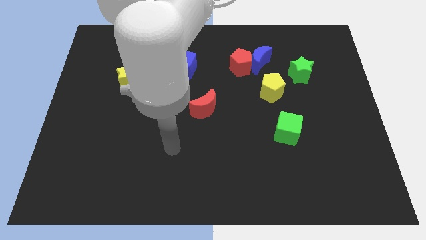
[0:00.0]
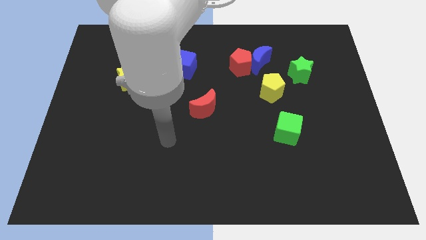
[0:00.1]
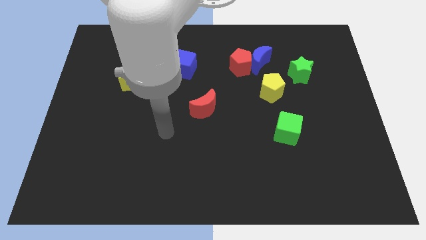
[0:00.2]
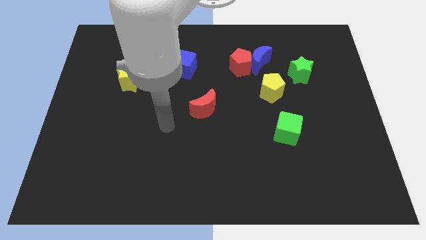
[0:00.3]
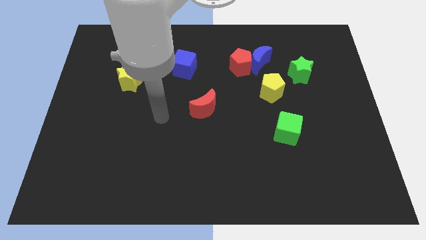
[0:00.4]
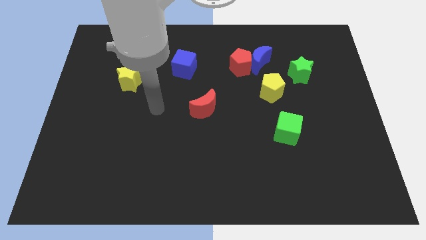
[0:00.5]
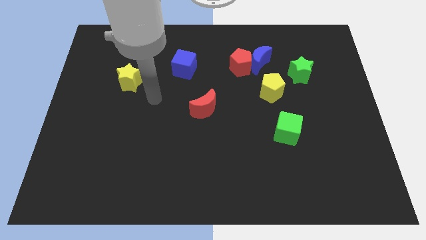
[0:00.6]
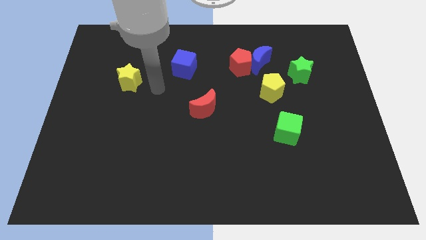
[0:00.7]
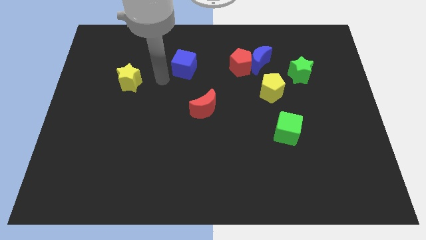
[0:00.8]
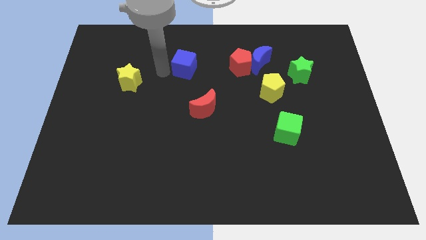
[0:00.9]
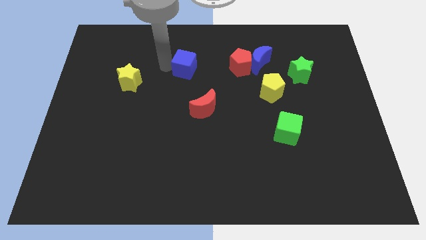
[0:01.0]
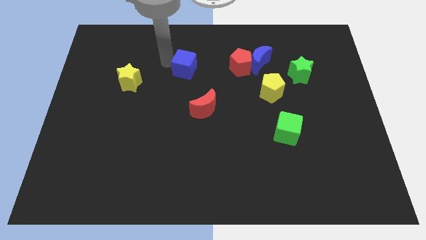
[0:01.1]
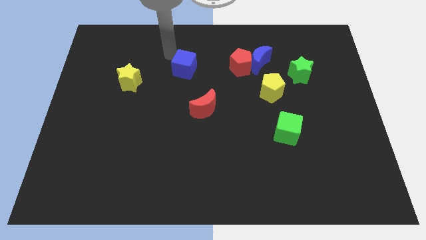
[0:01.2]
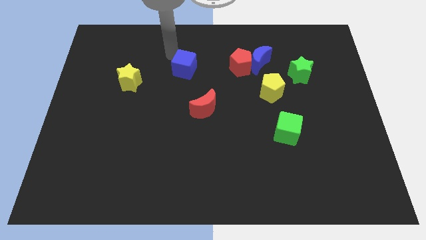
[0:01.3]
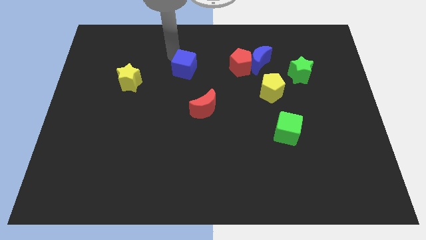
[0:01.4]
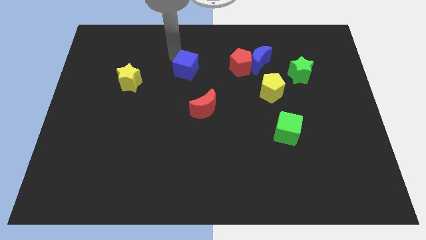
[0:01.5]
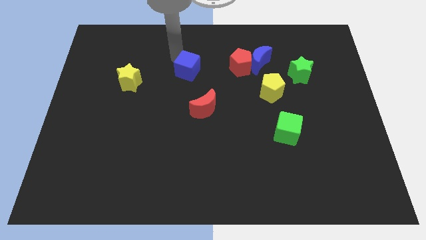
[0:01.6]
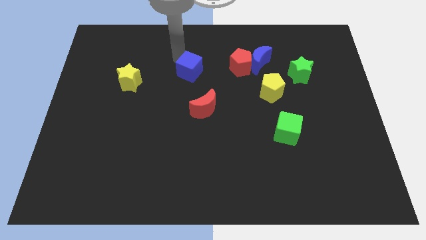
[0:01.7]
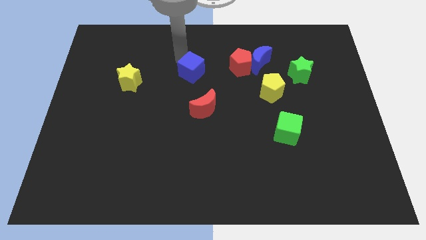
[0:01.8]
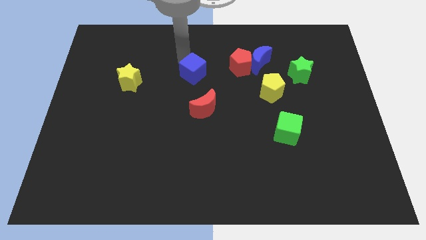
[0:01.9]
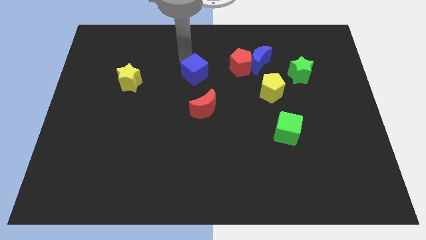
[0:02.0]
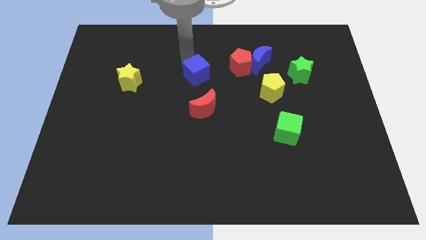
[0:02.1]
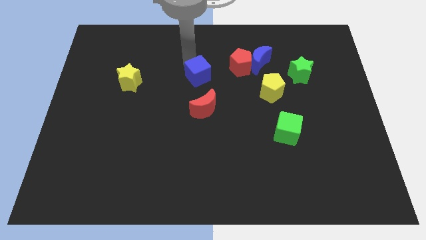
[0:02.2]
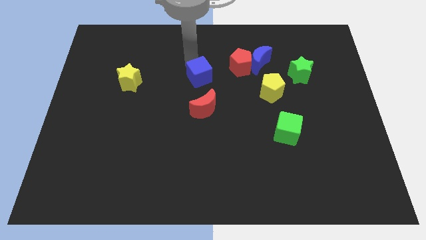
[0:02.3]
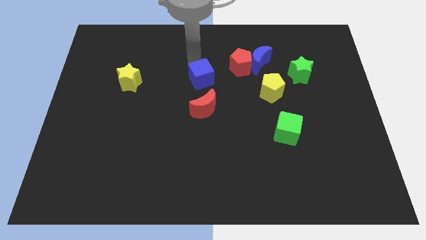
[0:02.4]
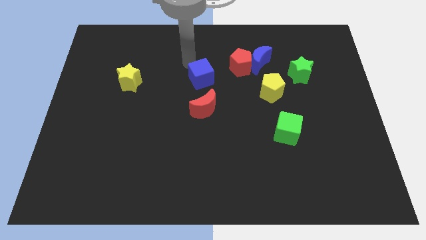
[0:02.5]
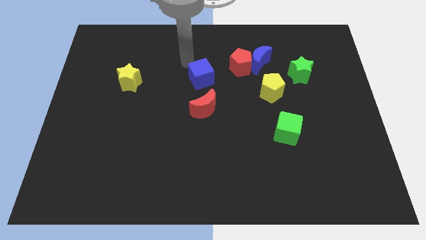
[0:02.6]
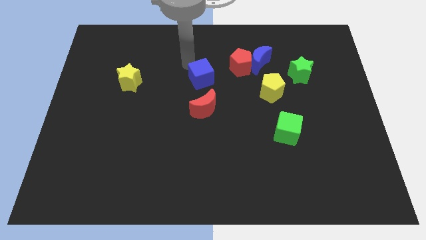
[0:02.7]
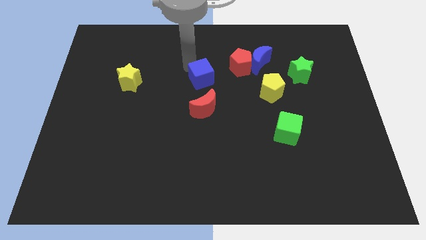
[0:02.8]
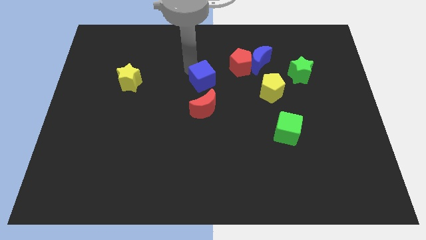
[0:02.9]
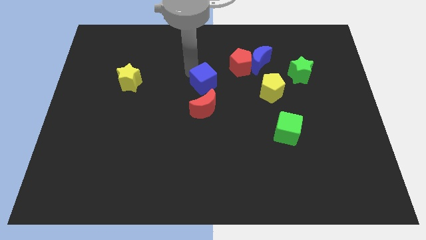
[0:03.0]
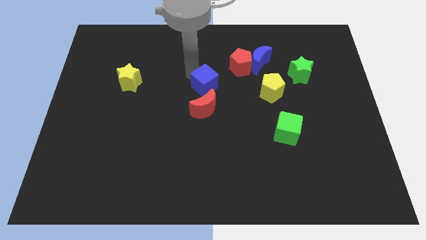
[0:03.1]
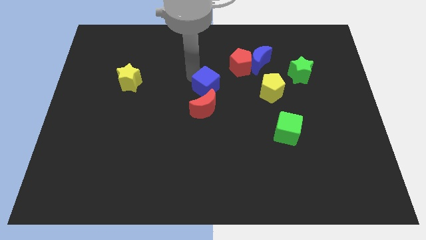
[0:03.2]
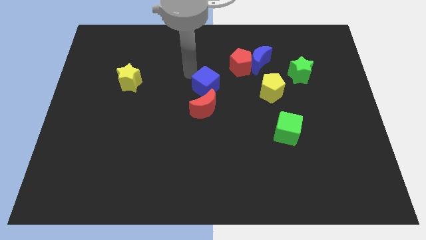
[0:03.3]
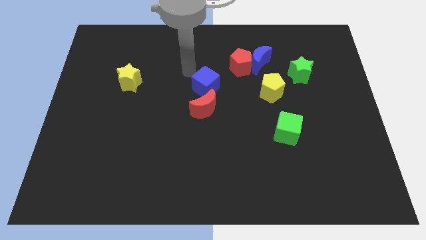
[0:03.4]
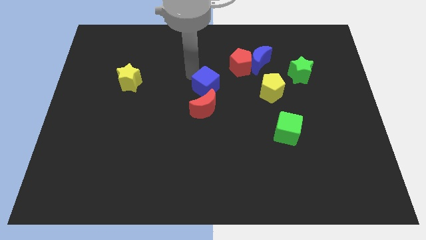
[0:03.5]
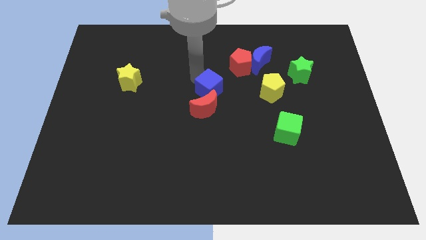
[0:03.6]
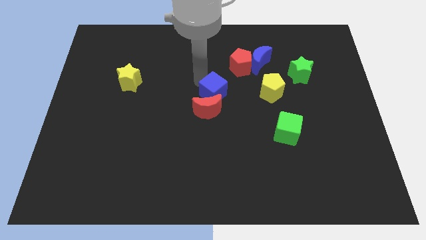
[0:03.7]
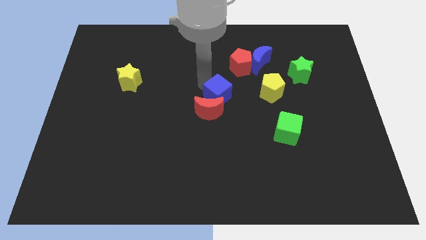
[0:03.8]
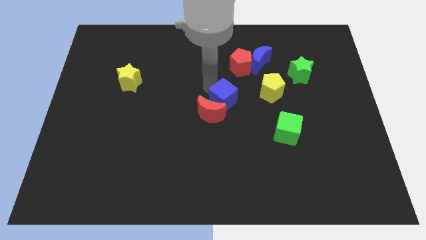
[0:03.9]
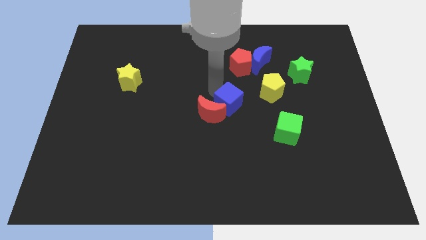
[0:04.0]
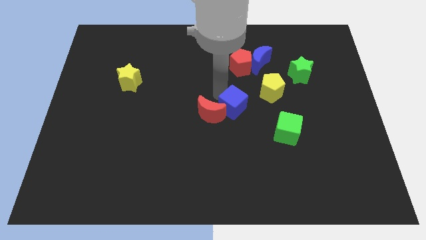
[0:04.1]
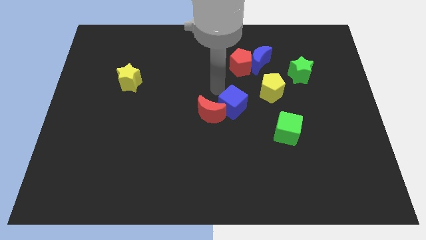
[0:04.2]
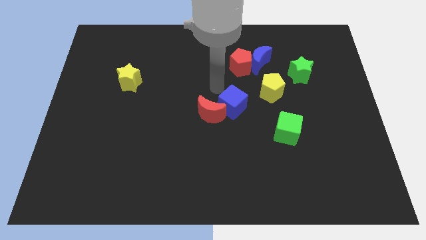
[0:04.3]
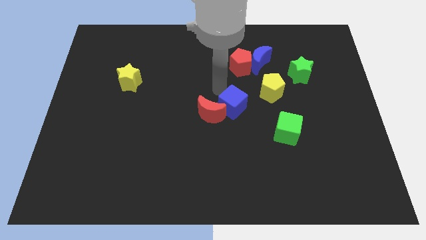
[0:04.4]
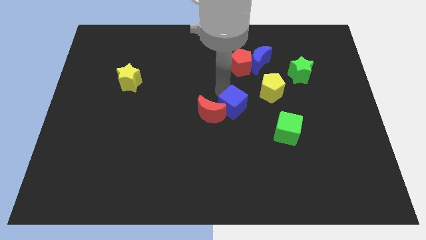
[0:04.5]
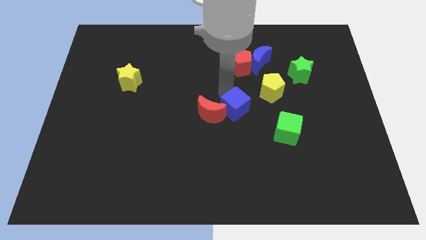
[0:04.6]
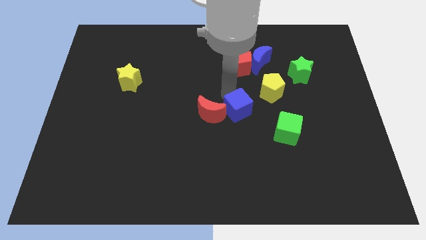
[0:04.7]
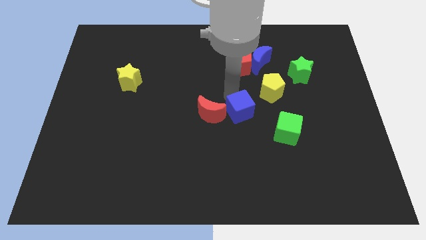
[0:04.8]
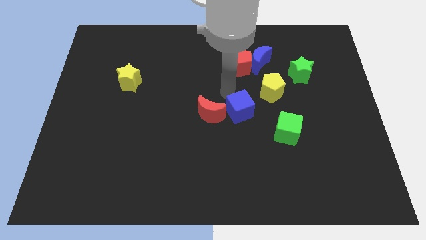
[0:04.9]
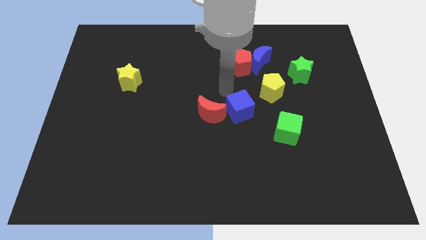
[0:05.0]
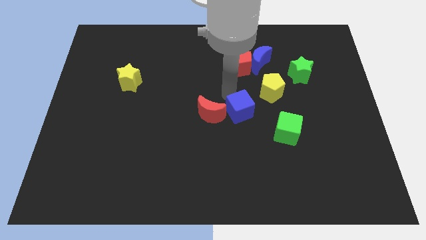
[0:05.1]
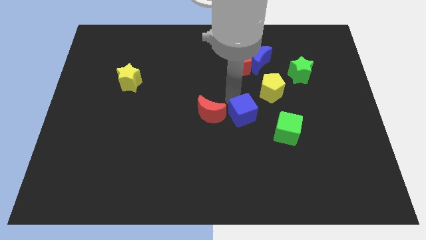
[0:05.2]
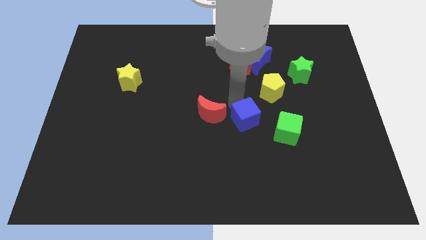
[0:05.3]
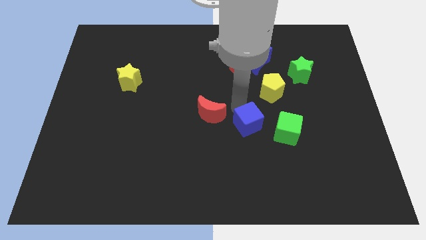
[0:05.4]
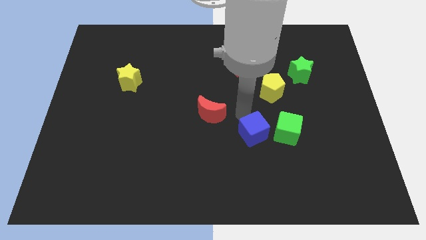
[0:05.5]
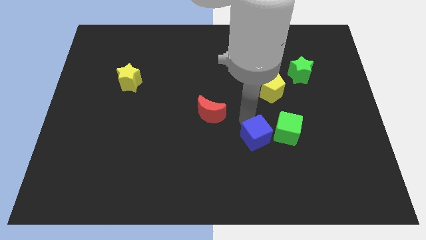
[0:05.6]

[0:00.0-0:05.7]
push the blue cube to the bottom left side of the green cube

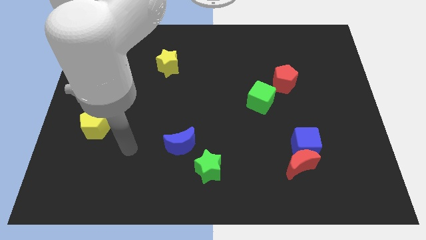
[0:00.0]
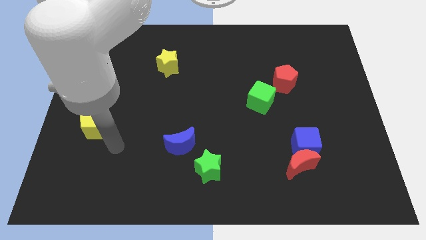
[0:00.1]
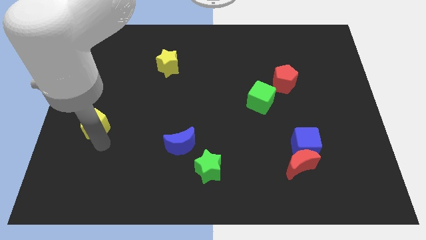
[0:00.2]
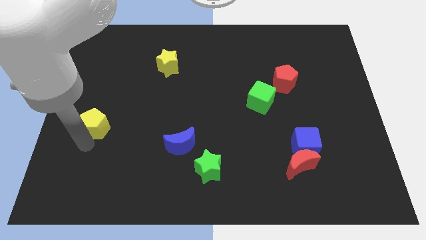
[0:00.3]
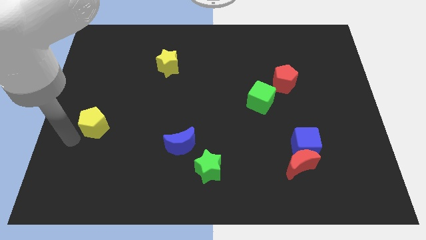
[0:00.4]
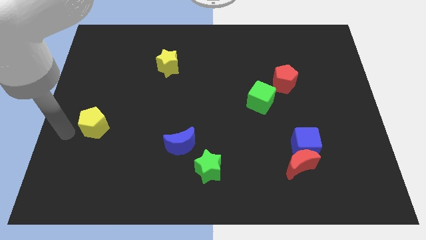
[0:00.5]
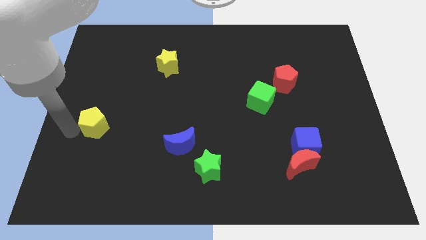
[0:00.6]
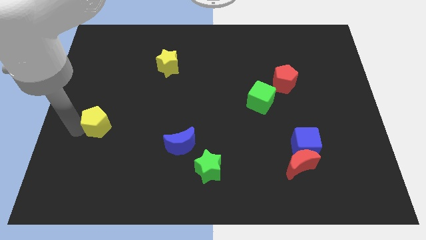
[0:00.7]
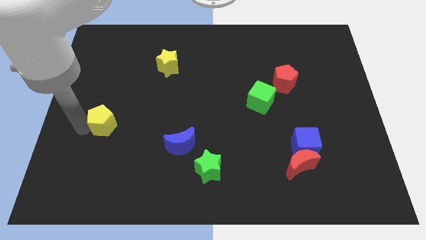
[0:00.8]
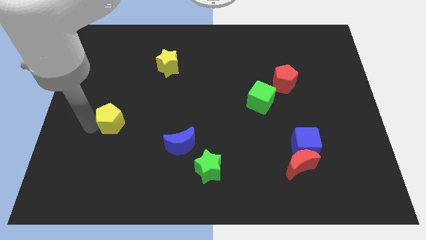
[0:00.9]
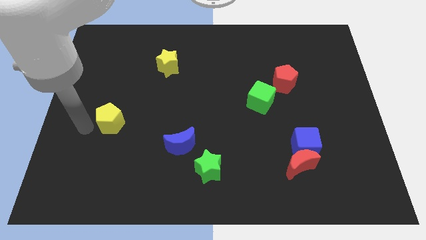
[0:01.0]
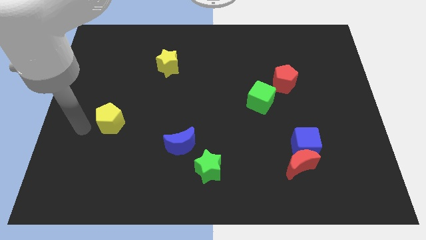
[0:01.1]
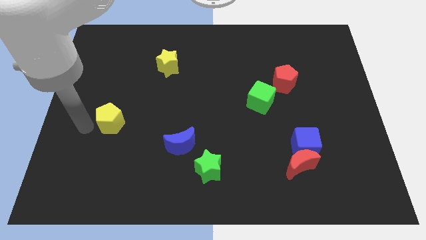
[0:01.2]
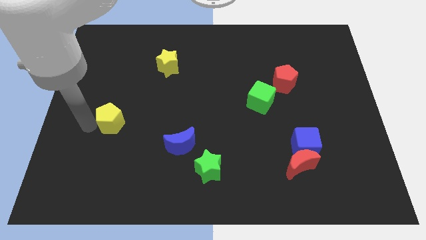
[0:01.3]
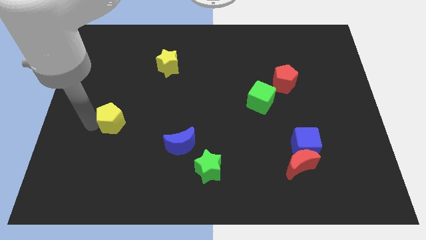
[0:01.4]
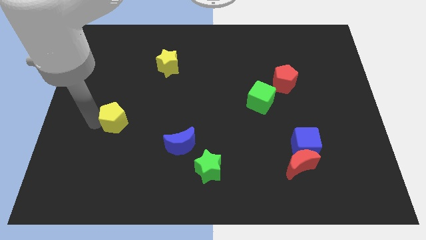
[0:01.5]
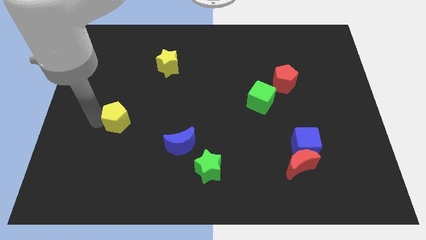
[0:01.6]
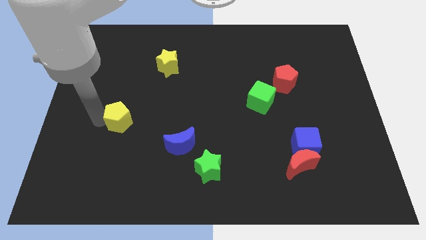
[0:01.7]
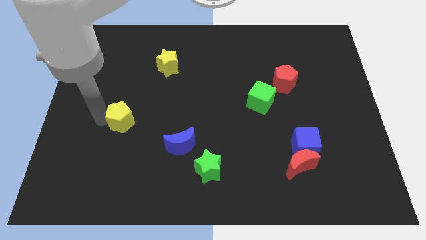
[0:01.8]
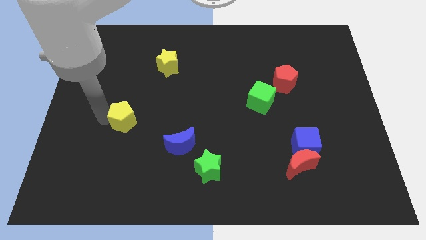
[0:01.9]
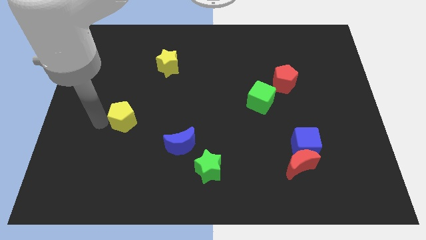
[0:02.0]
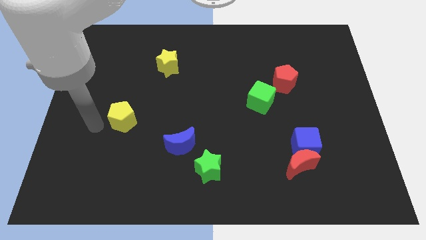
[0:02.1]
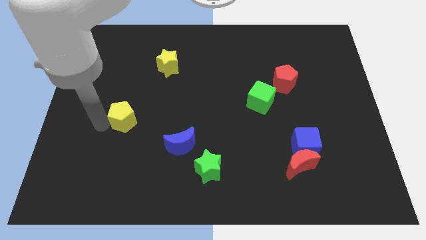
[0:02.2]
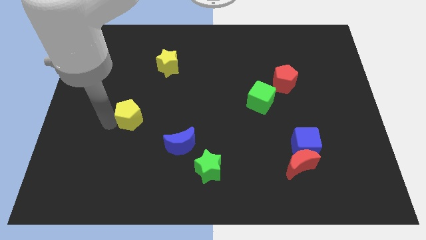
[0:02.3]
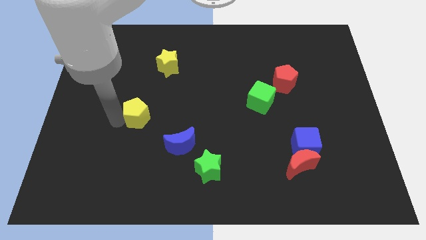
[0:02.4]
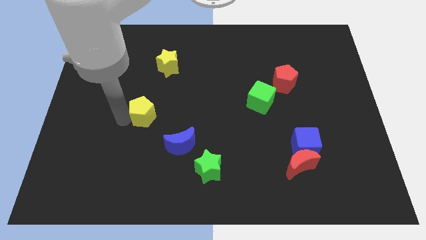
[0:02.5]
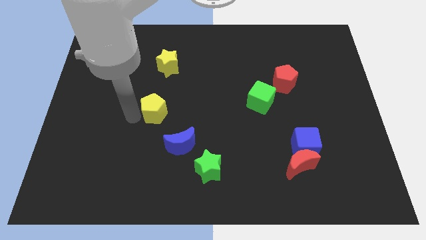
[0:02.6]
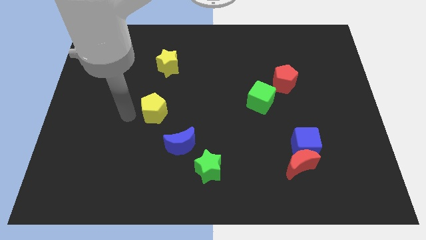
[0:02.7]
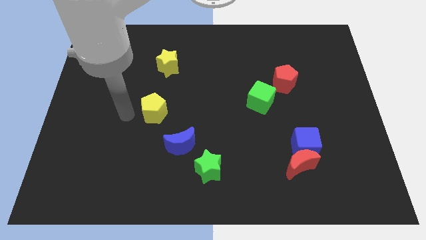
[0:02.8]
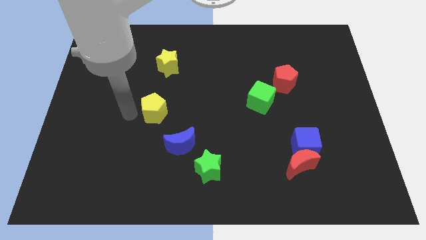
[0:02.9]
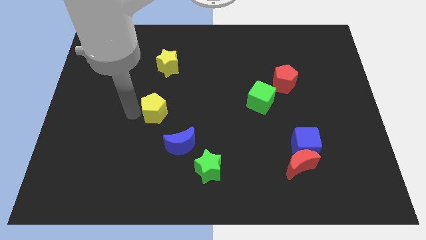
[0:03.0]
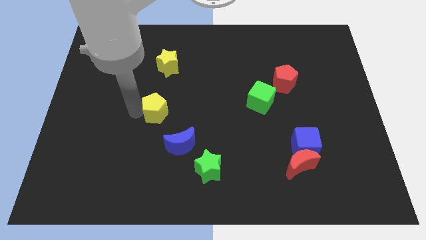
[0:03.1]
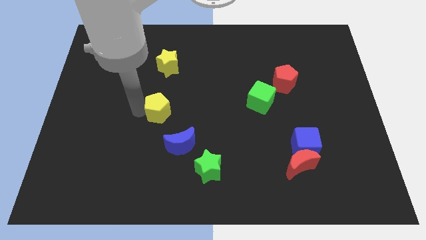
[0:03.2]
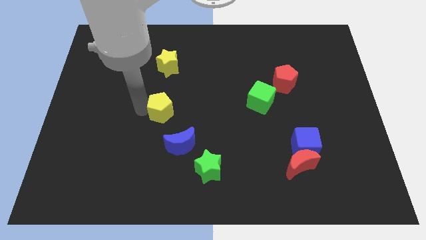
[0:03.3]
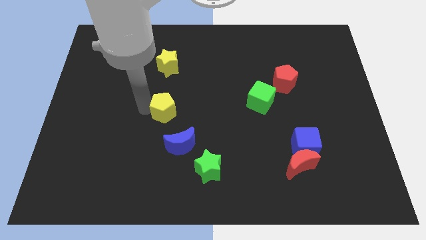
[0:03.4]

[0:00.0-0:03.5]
move the yellow pentagon to the top side of the blue moon
